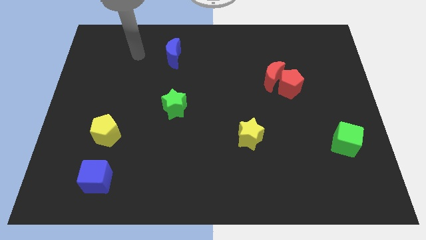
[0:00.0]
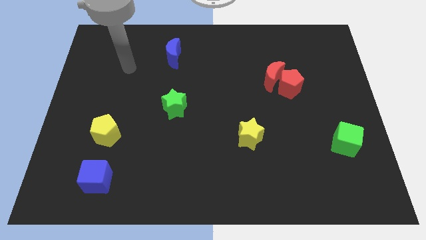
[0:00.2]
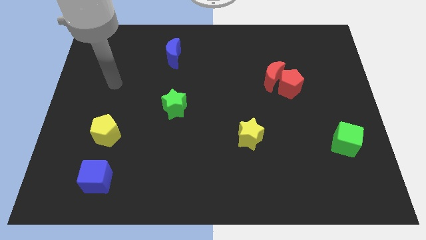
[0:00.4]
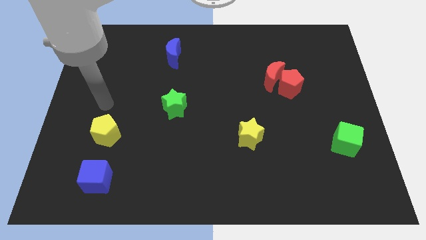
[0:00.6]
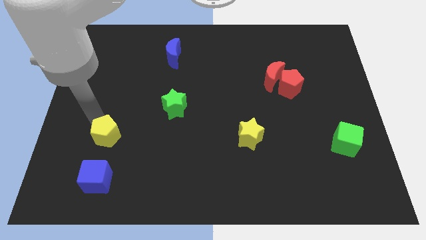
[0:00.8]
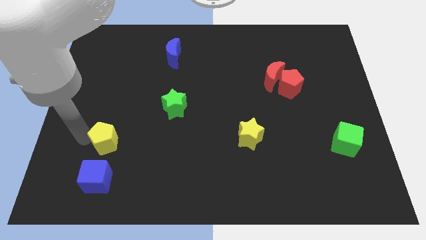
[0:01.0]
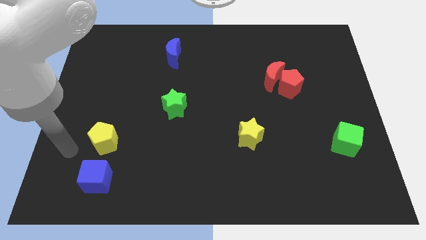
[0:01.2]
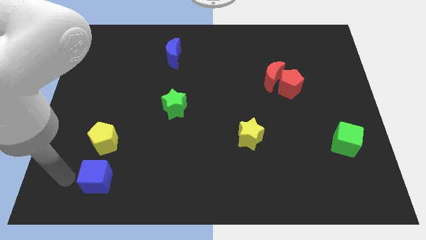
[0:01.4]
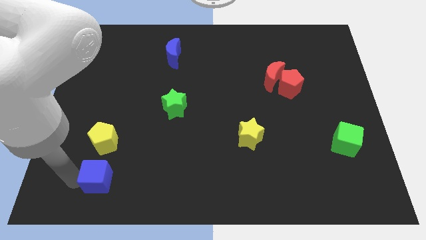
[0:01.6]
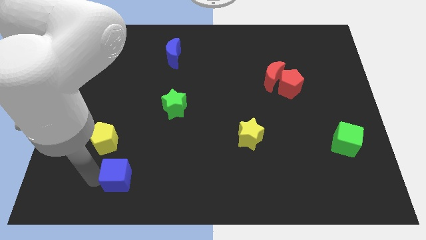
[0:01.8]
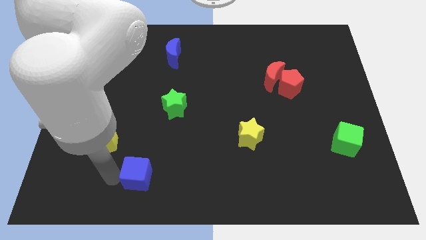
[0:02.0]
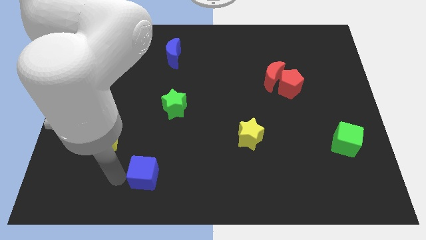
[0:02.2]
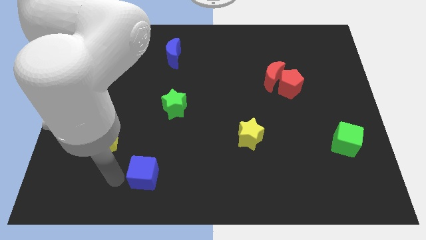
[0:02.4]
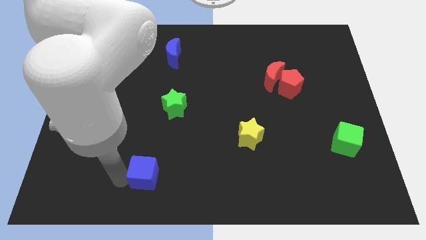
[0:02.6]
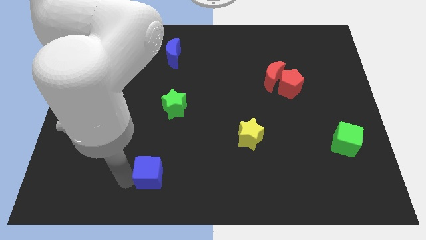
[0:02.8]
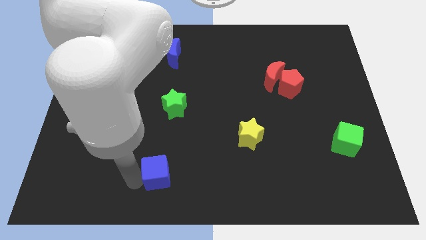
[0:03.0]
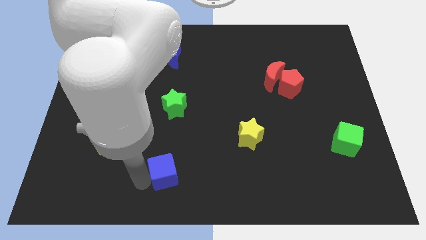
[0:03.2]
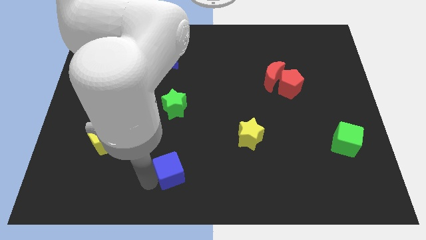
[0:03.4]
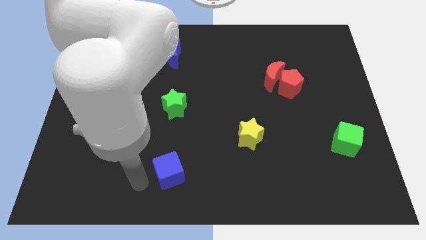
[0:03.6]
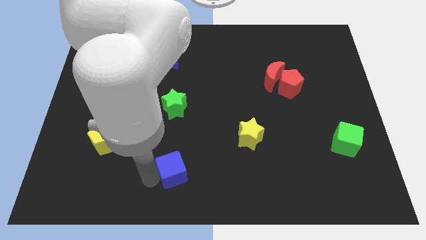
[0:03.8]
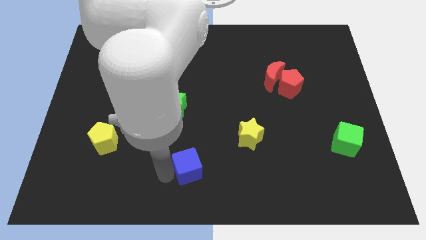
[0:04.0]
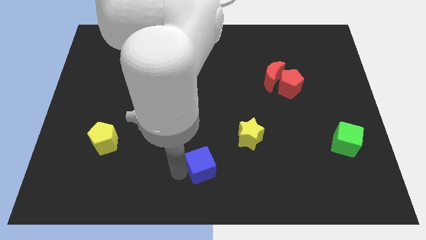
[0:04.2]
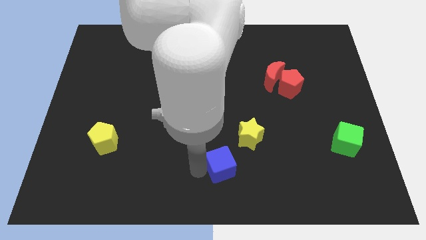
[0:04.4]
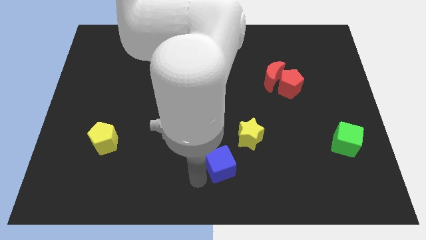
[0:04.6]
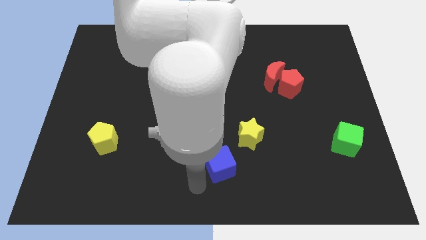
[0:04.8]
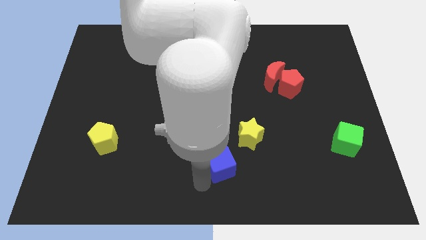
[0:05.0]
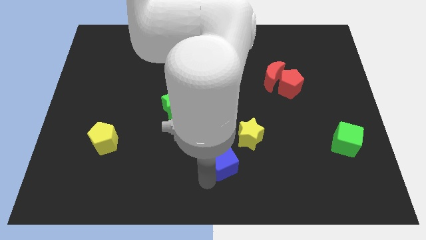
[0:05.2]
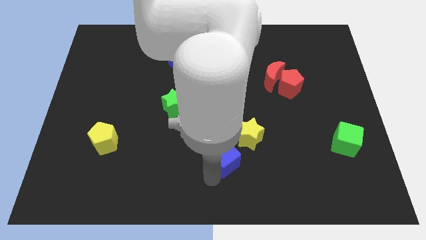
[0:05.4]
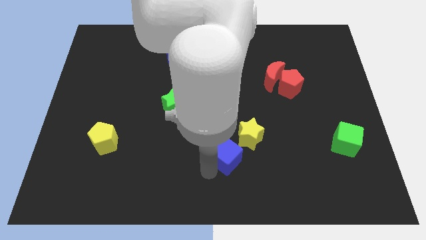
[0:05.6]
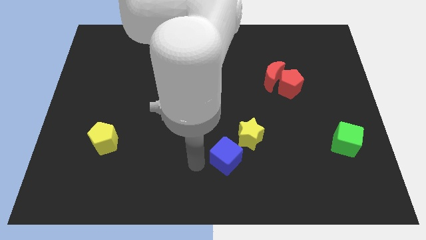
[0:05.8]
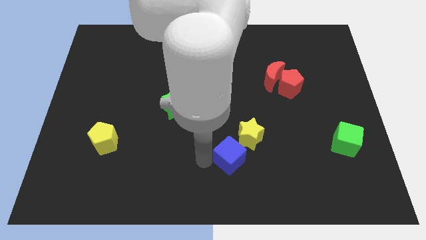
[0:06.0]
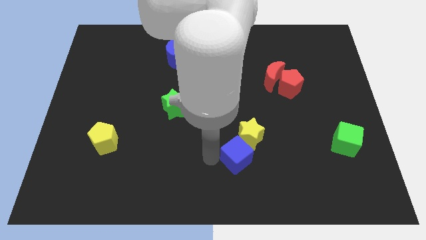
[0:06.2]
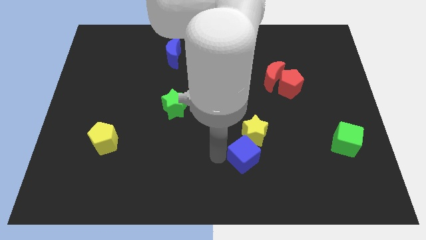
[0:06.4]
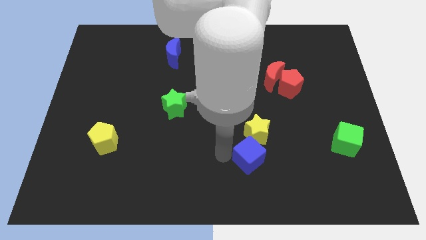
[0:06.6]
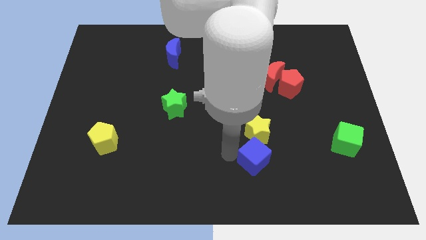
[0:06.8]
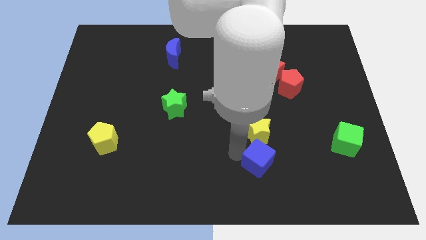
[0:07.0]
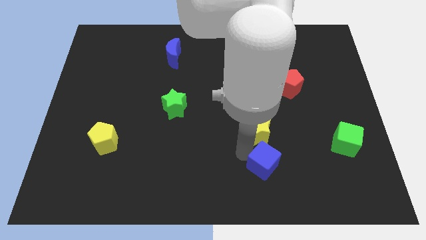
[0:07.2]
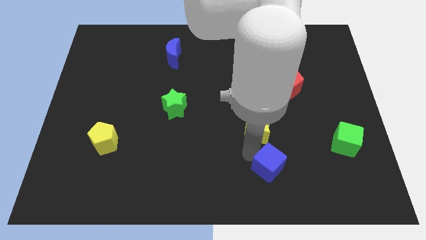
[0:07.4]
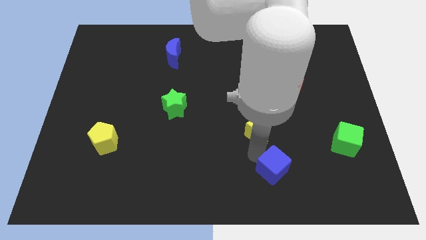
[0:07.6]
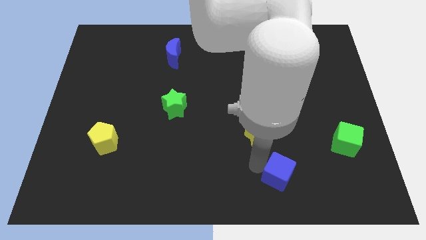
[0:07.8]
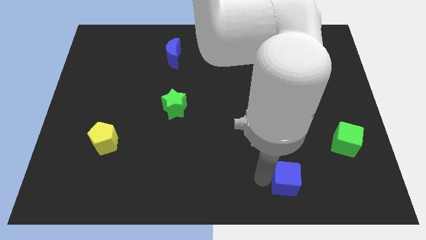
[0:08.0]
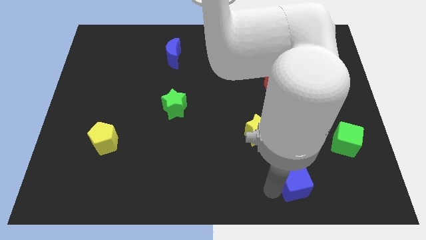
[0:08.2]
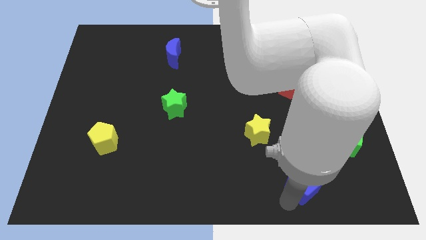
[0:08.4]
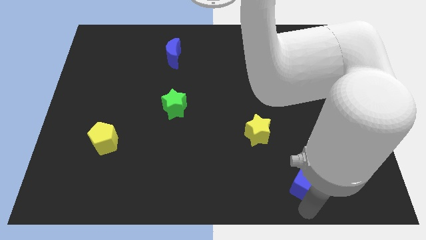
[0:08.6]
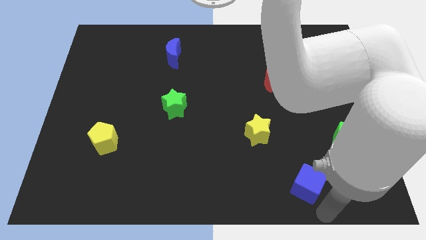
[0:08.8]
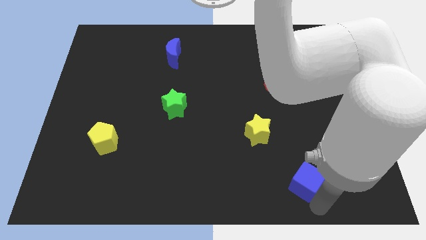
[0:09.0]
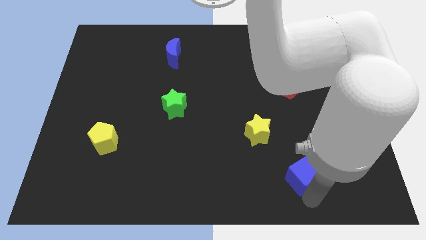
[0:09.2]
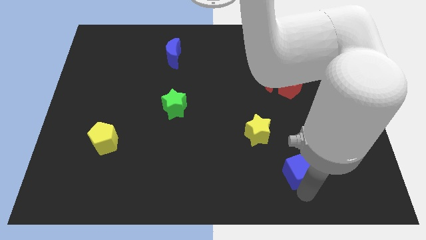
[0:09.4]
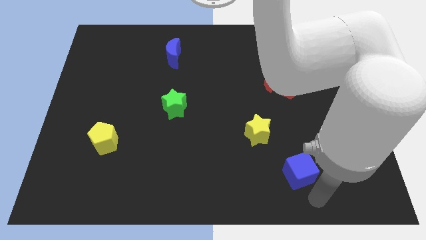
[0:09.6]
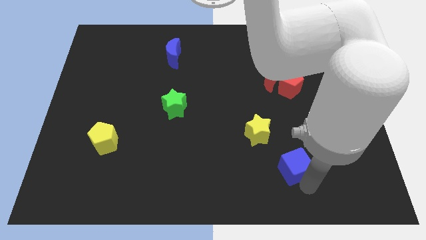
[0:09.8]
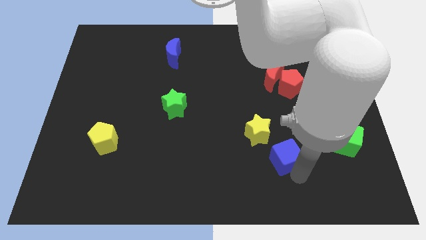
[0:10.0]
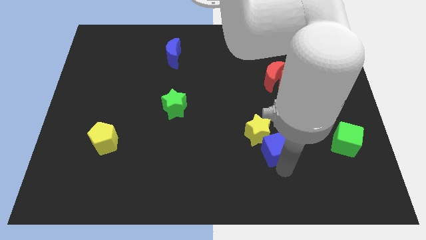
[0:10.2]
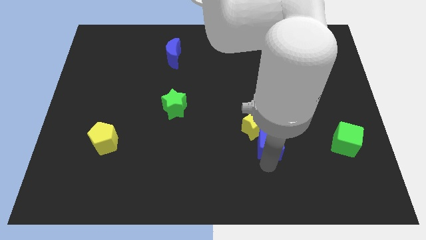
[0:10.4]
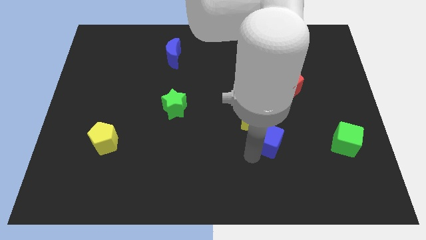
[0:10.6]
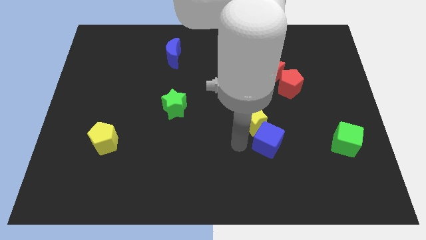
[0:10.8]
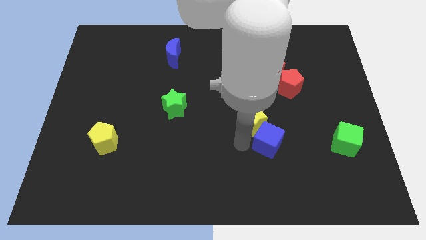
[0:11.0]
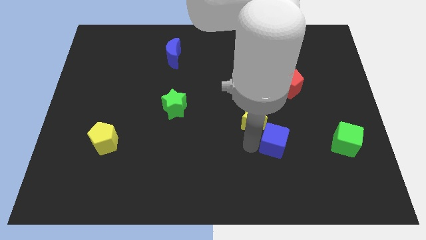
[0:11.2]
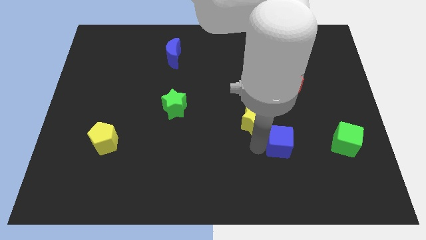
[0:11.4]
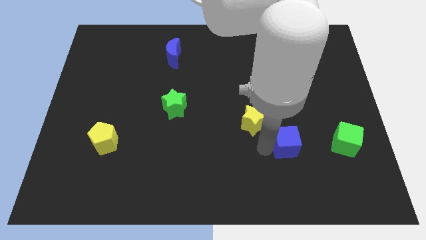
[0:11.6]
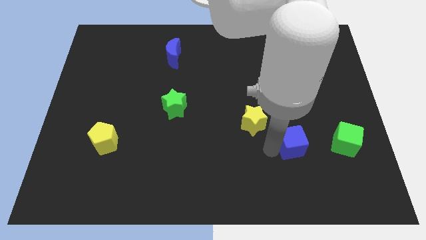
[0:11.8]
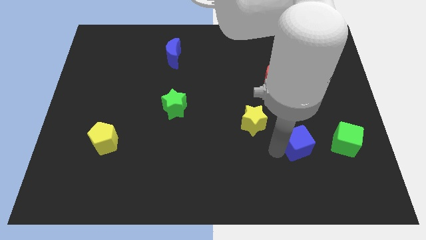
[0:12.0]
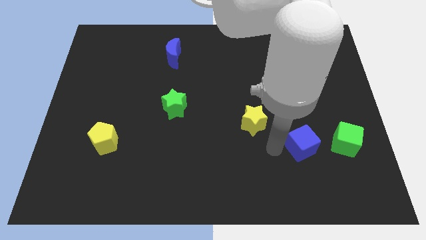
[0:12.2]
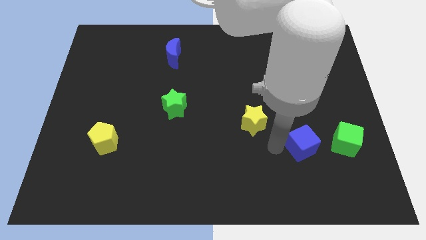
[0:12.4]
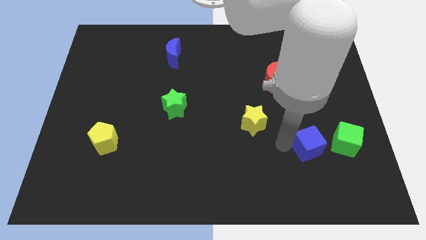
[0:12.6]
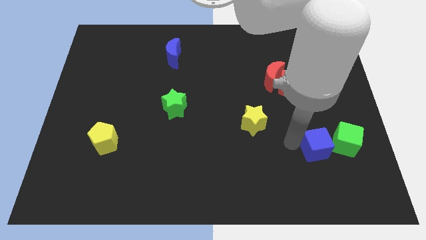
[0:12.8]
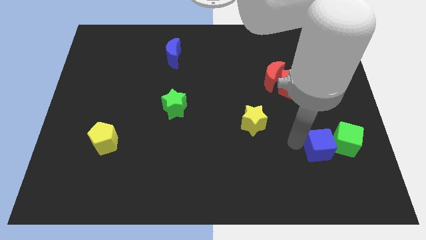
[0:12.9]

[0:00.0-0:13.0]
slide the blue cube close to the green cube
